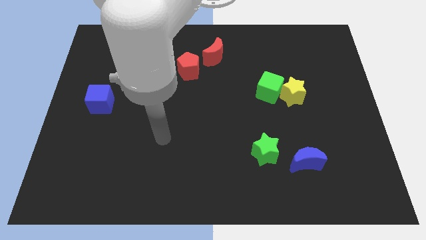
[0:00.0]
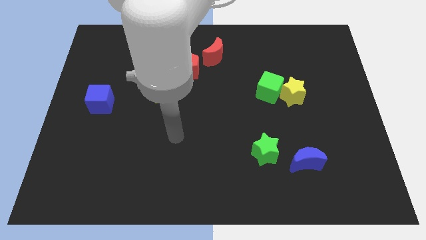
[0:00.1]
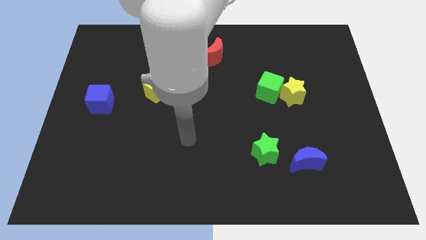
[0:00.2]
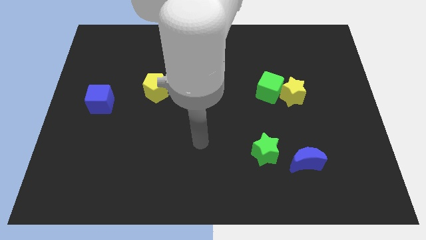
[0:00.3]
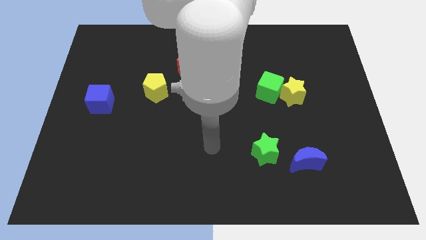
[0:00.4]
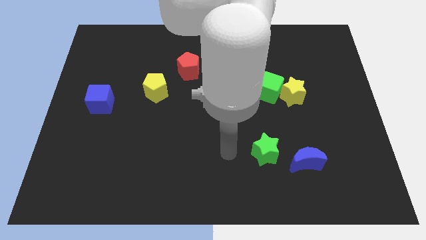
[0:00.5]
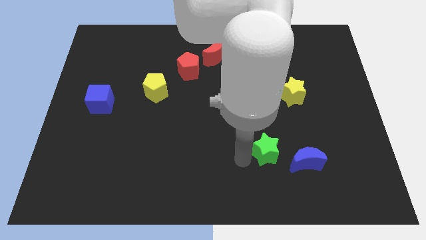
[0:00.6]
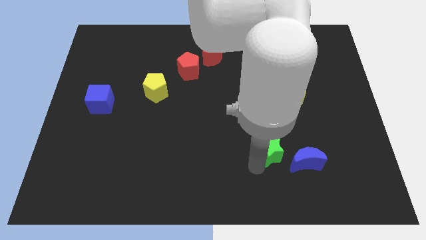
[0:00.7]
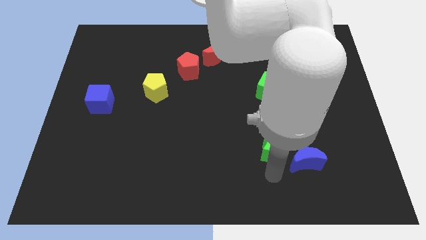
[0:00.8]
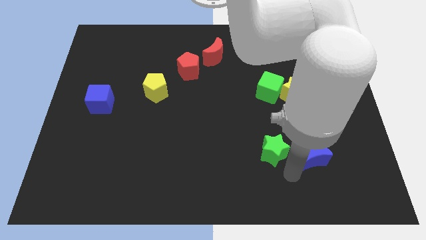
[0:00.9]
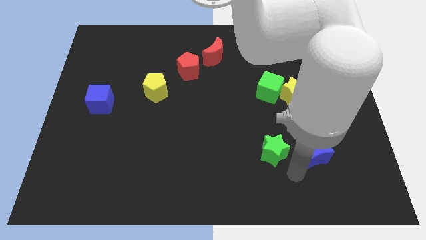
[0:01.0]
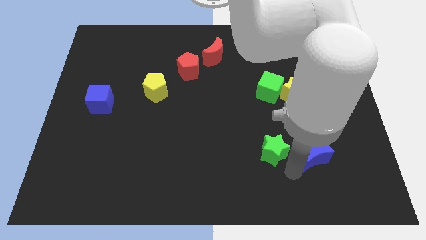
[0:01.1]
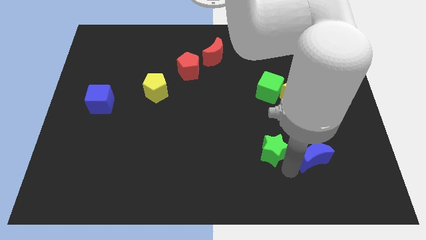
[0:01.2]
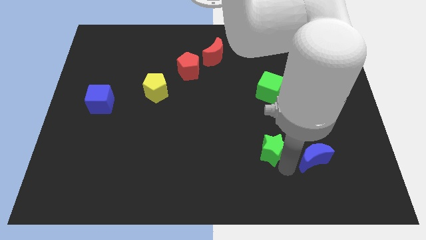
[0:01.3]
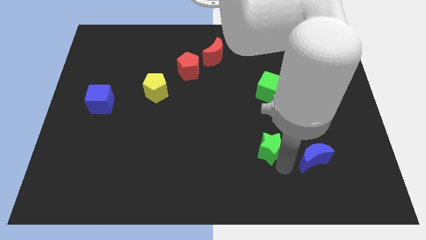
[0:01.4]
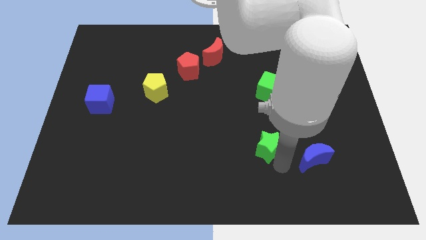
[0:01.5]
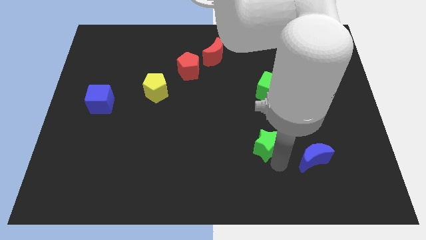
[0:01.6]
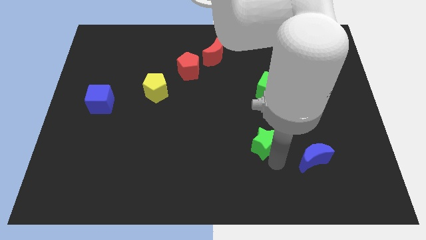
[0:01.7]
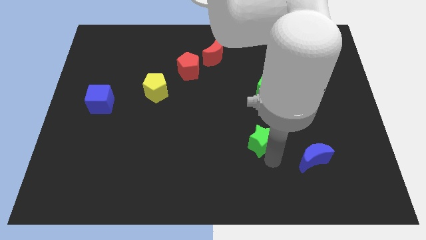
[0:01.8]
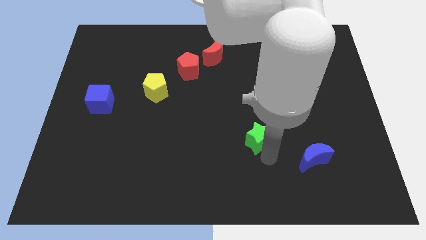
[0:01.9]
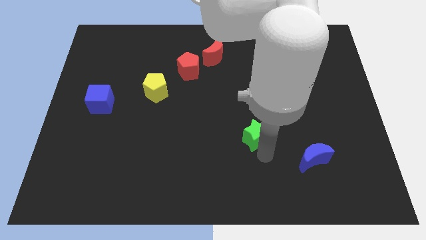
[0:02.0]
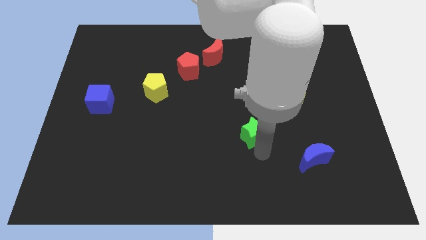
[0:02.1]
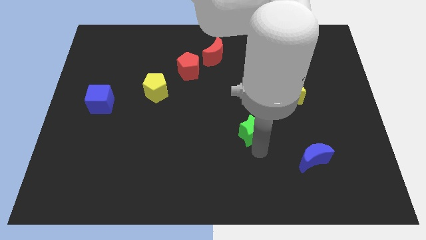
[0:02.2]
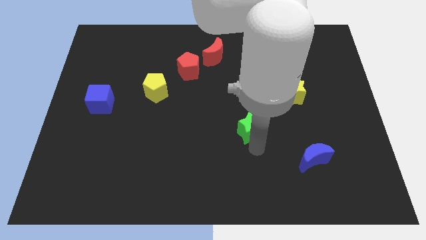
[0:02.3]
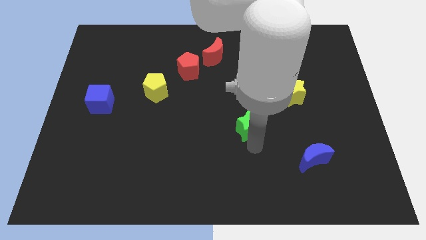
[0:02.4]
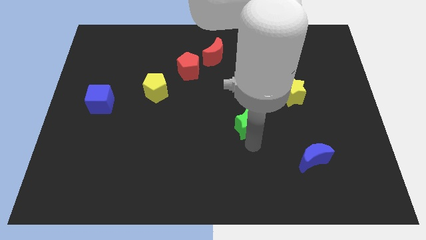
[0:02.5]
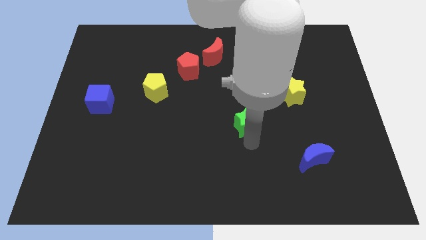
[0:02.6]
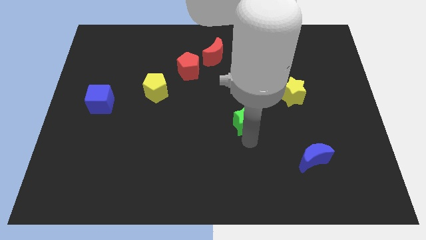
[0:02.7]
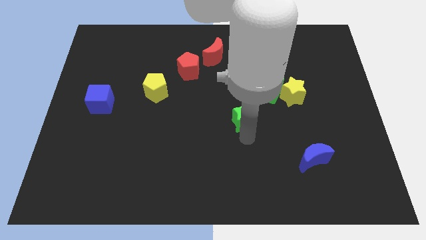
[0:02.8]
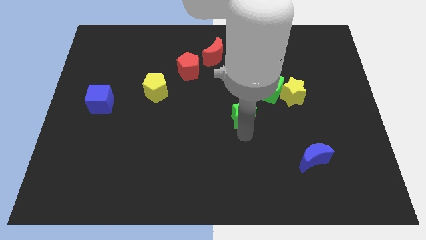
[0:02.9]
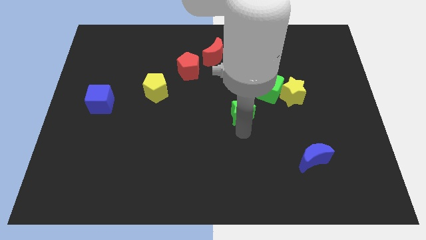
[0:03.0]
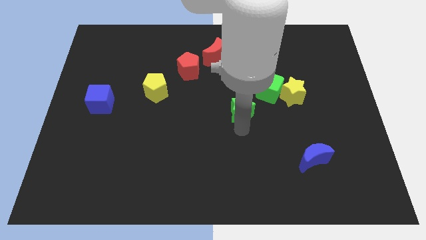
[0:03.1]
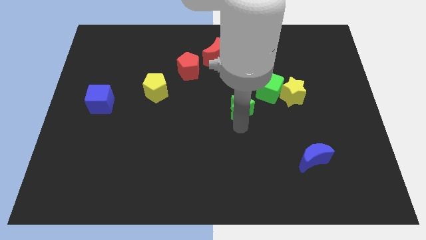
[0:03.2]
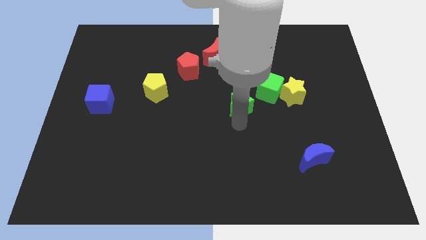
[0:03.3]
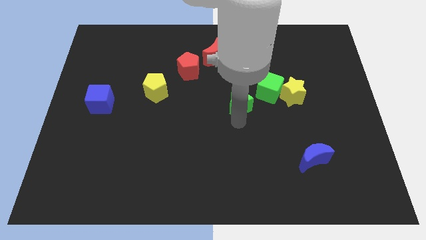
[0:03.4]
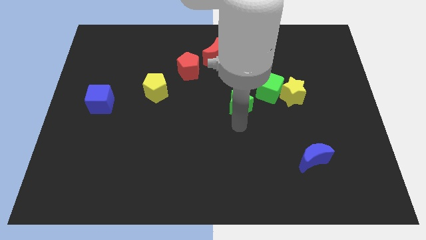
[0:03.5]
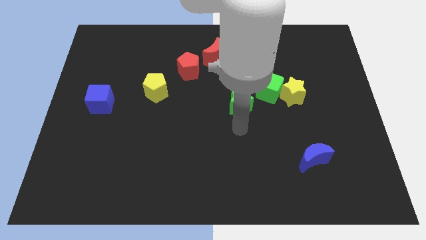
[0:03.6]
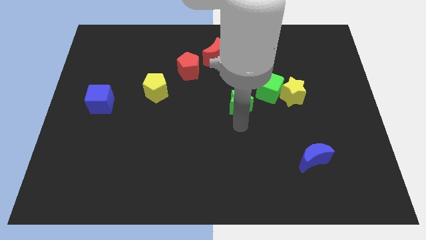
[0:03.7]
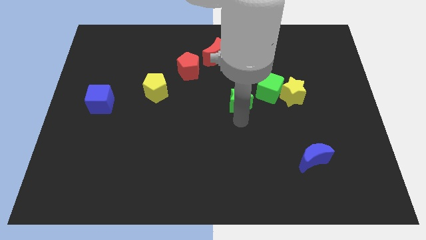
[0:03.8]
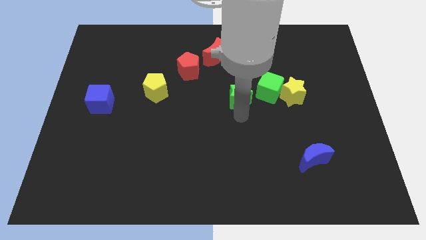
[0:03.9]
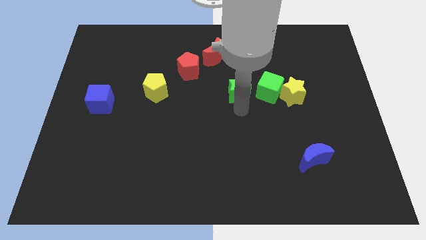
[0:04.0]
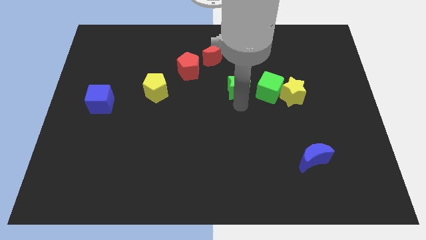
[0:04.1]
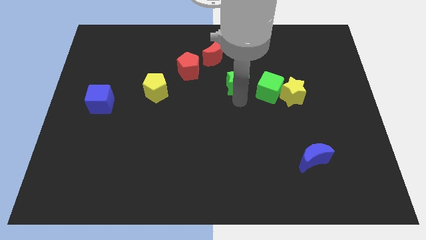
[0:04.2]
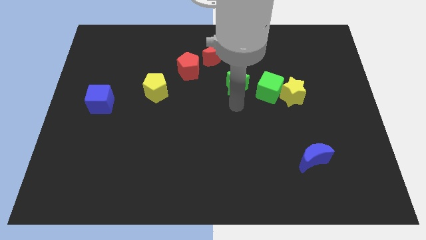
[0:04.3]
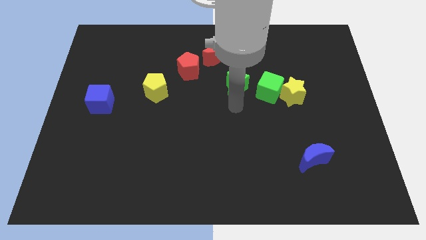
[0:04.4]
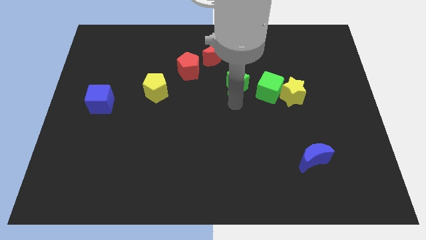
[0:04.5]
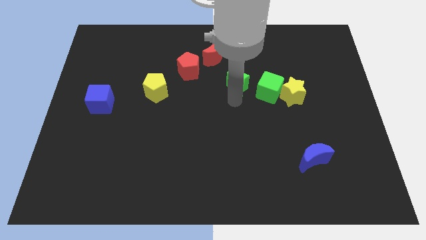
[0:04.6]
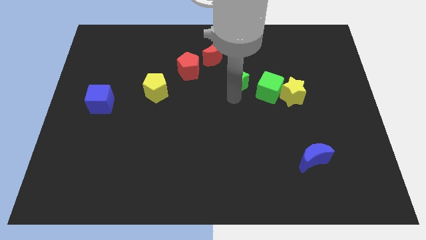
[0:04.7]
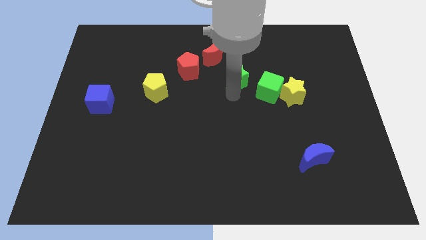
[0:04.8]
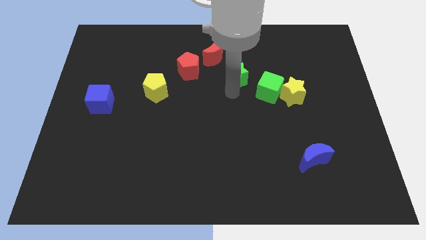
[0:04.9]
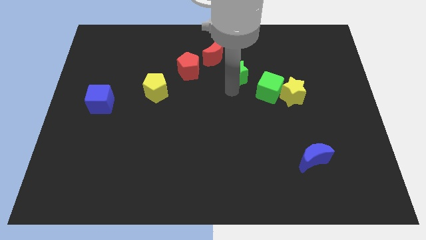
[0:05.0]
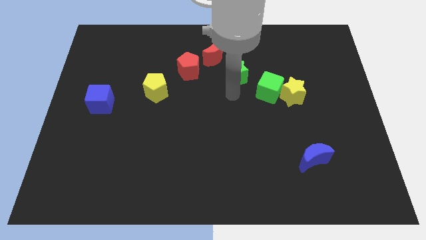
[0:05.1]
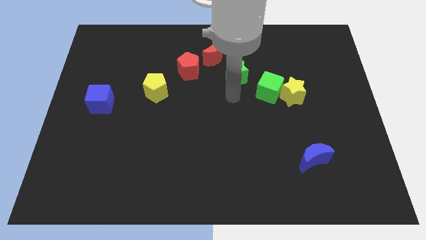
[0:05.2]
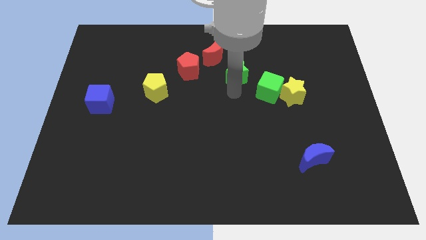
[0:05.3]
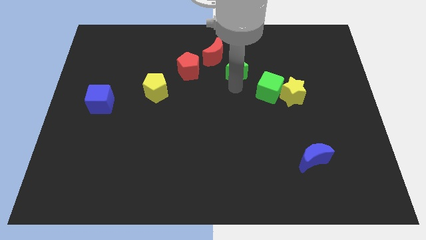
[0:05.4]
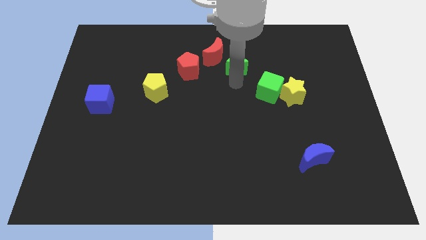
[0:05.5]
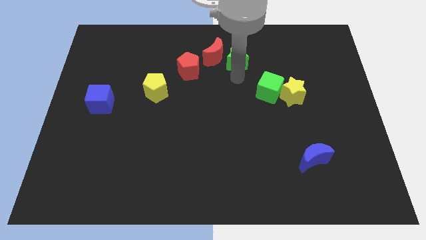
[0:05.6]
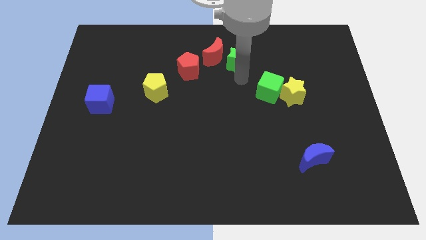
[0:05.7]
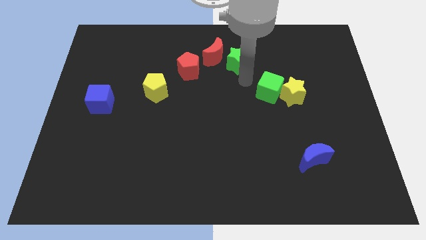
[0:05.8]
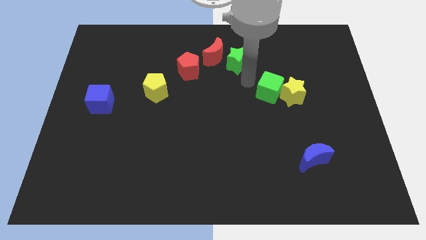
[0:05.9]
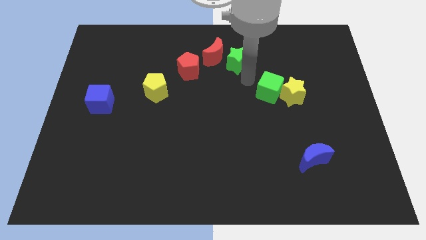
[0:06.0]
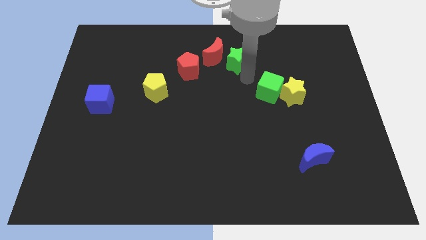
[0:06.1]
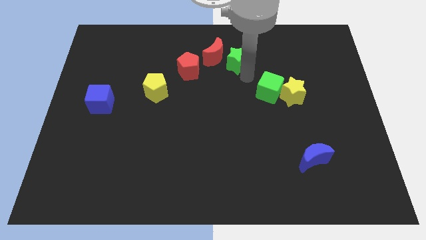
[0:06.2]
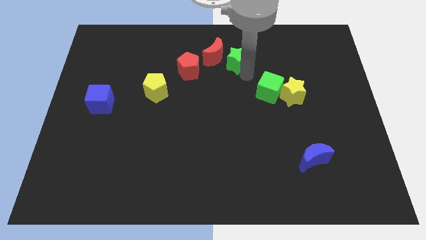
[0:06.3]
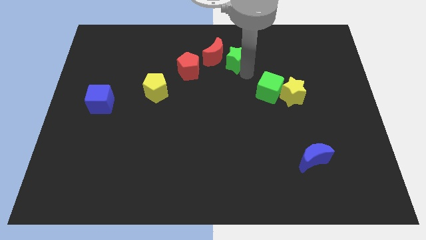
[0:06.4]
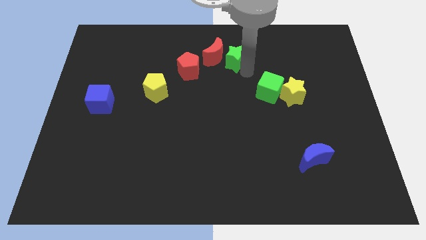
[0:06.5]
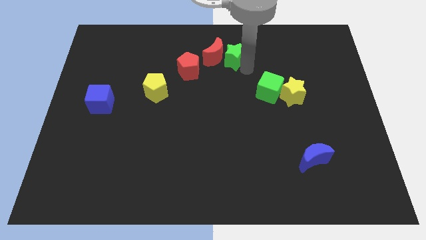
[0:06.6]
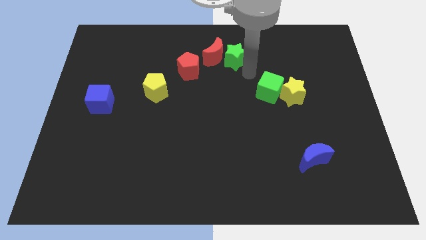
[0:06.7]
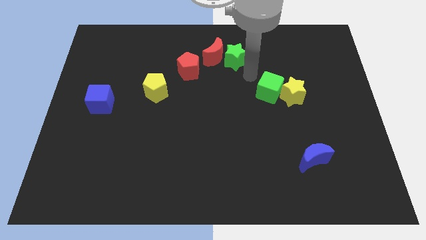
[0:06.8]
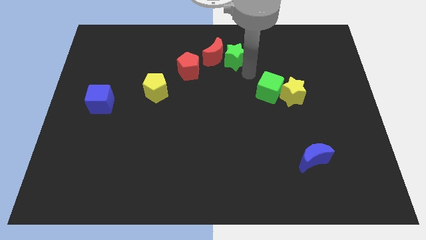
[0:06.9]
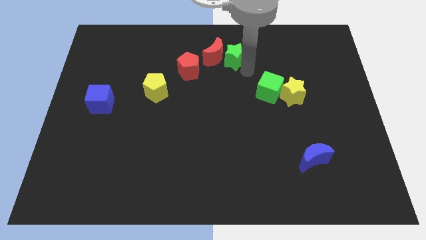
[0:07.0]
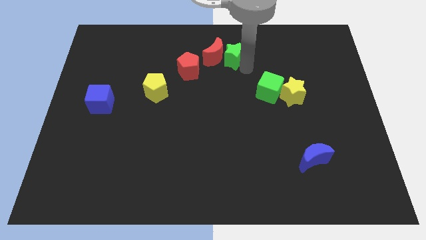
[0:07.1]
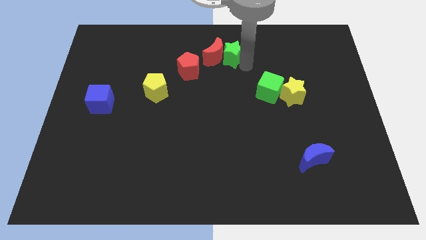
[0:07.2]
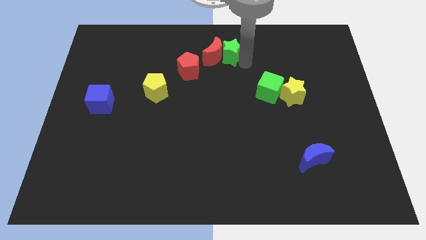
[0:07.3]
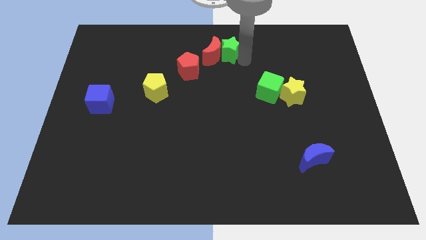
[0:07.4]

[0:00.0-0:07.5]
push the green star to the top side
